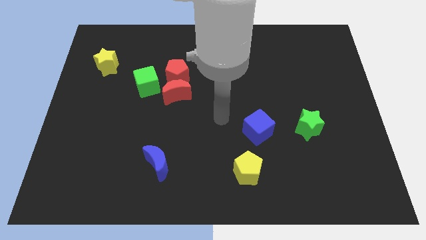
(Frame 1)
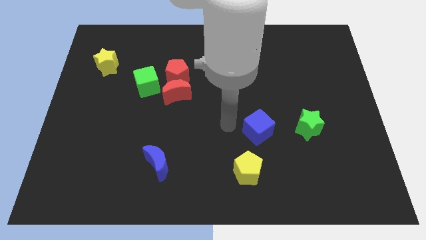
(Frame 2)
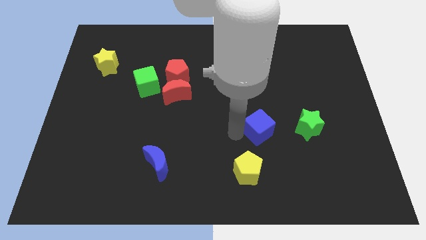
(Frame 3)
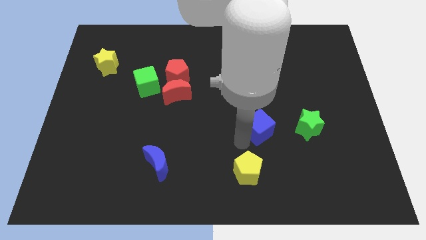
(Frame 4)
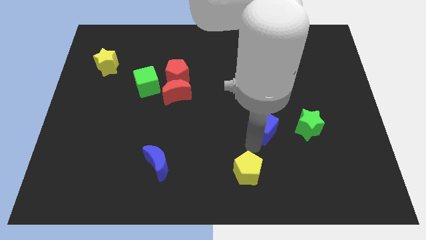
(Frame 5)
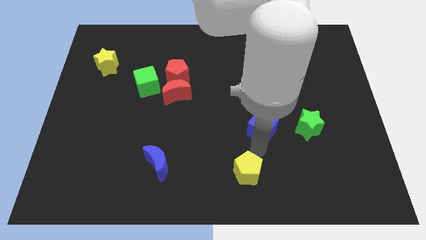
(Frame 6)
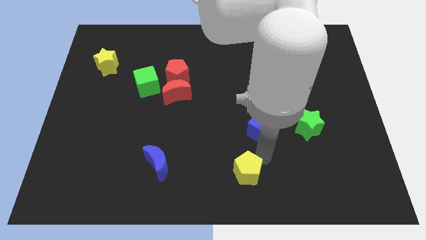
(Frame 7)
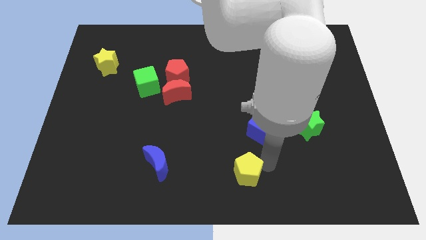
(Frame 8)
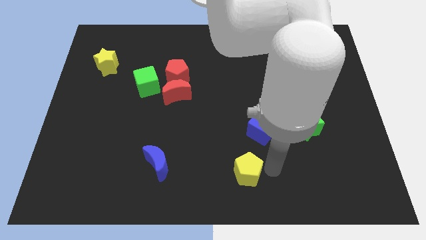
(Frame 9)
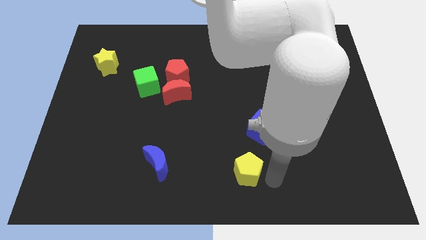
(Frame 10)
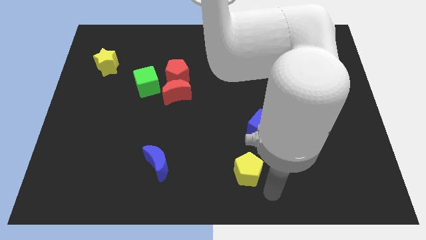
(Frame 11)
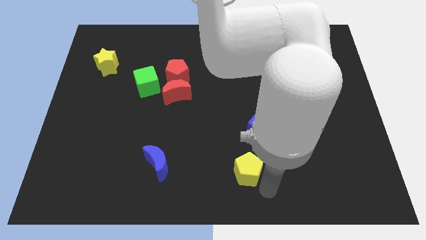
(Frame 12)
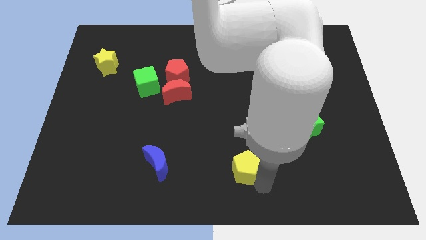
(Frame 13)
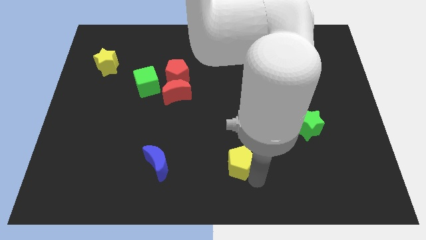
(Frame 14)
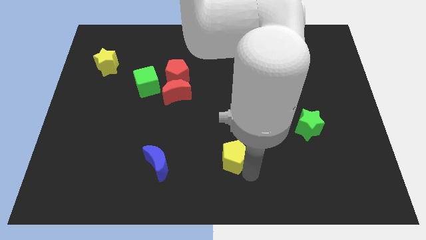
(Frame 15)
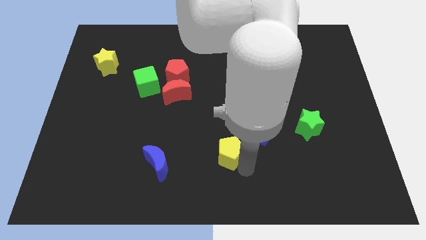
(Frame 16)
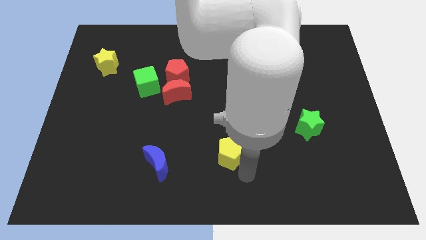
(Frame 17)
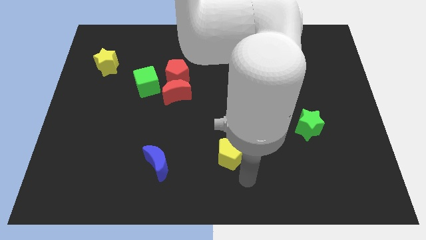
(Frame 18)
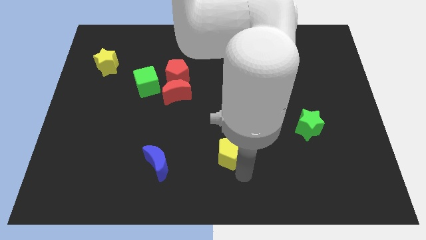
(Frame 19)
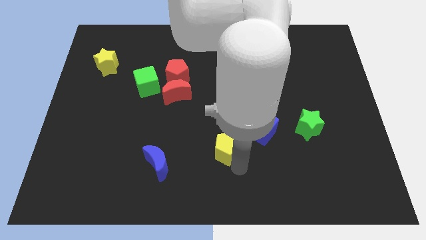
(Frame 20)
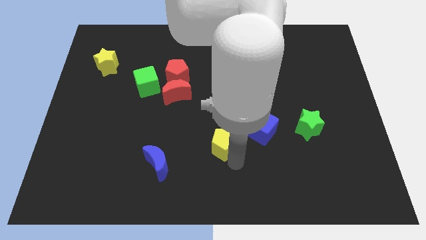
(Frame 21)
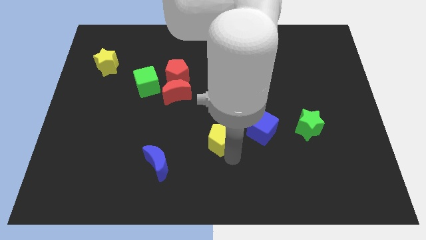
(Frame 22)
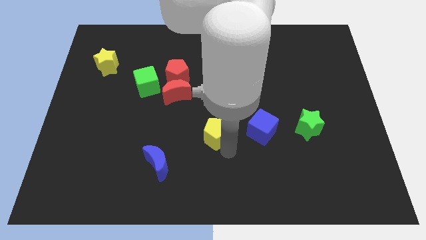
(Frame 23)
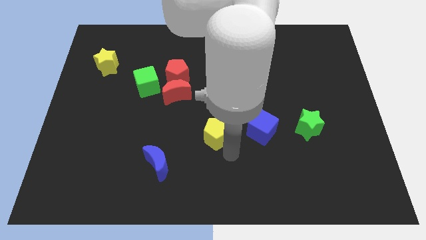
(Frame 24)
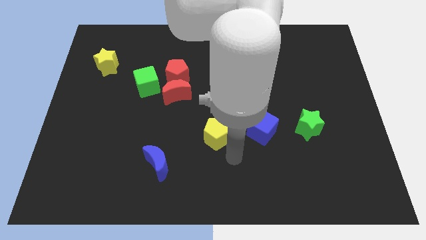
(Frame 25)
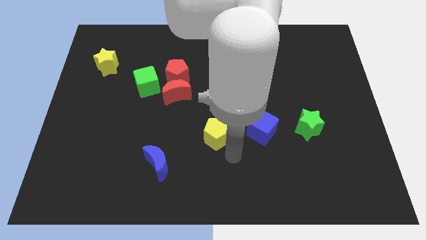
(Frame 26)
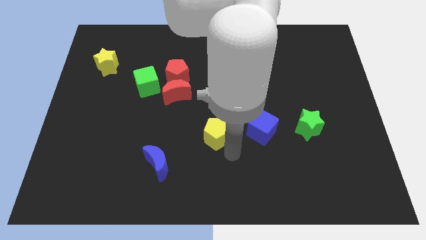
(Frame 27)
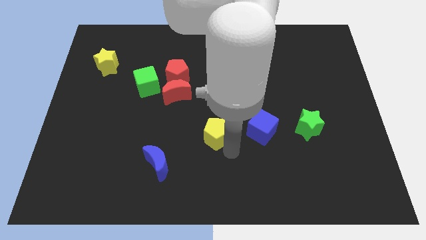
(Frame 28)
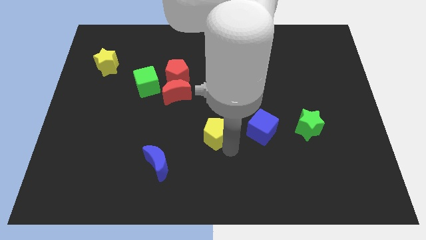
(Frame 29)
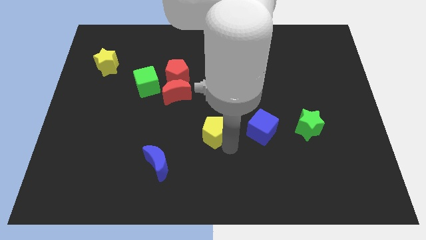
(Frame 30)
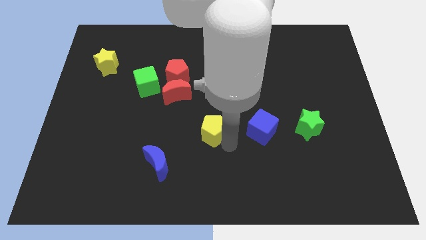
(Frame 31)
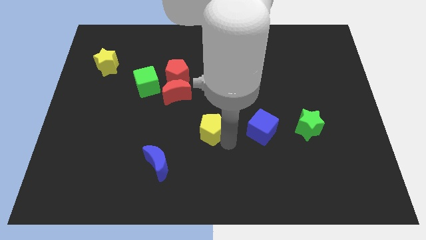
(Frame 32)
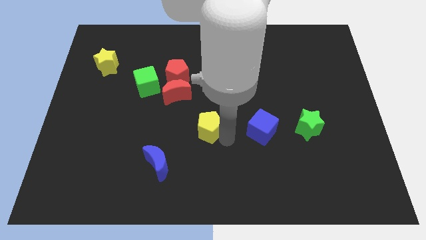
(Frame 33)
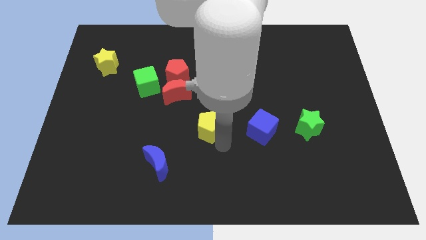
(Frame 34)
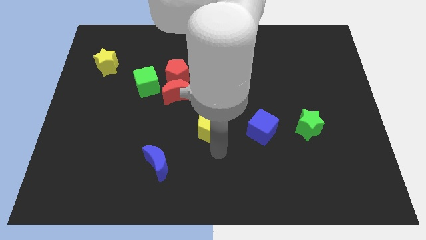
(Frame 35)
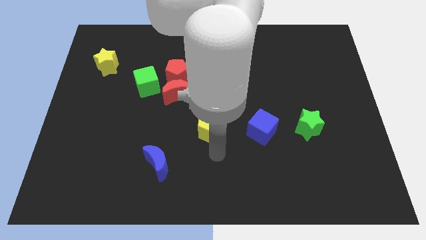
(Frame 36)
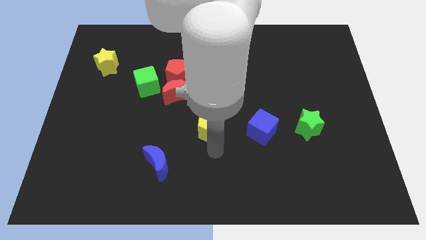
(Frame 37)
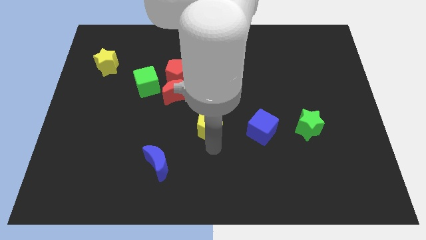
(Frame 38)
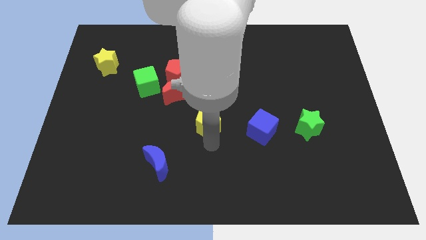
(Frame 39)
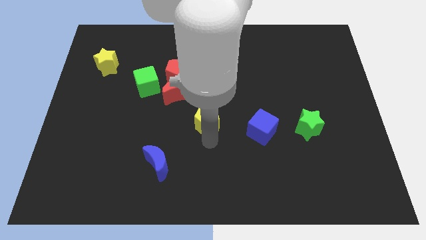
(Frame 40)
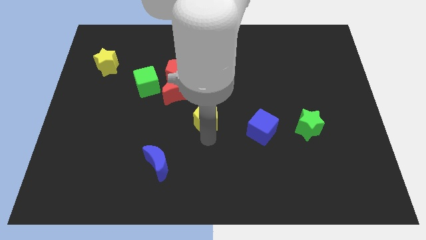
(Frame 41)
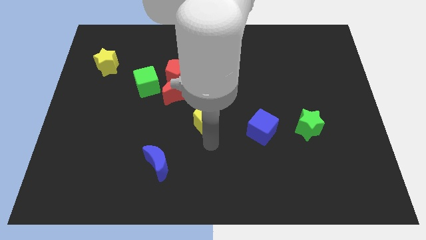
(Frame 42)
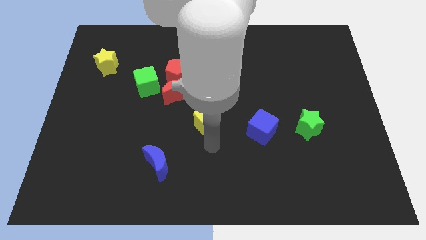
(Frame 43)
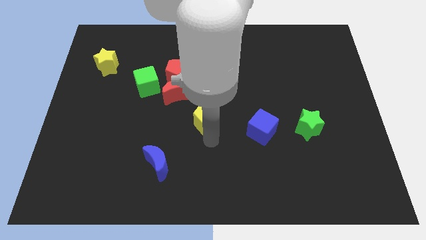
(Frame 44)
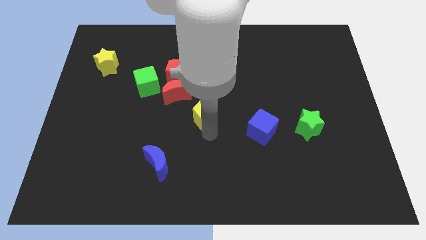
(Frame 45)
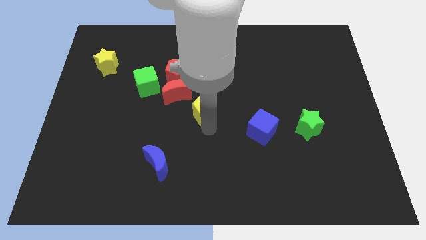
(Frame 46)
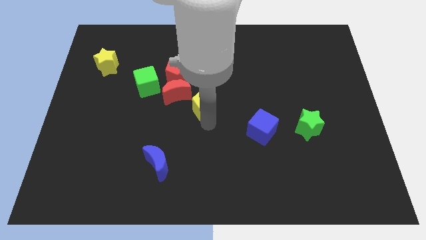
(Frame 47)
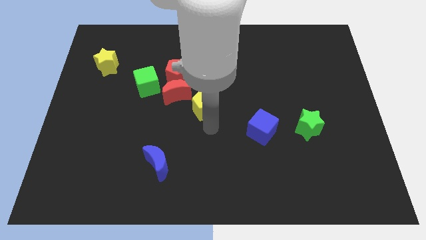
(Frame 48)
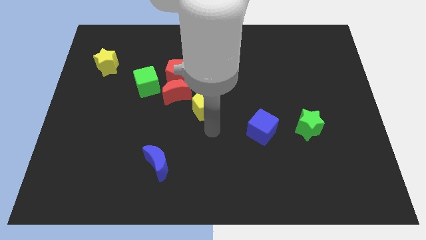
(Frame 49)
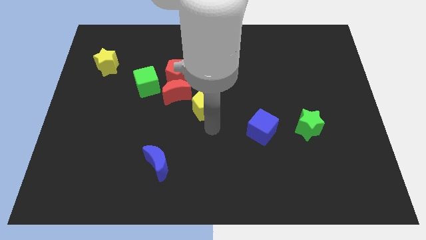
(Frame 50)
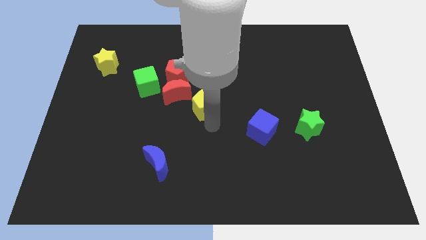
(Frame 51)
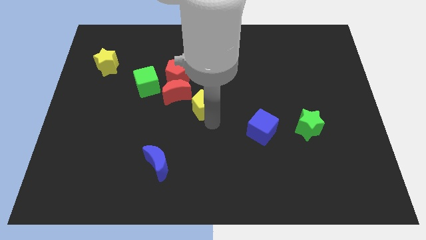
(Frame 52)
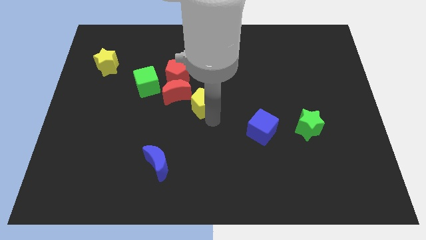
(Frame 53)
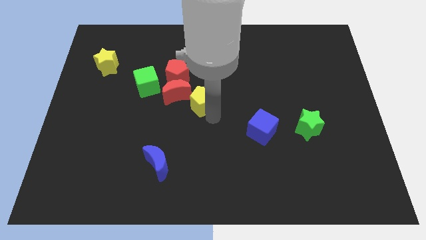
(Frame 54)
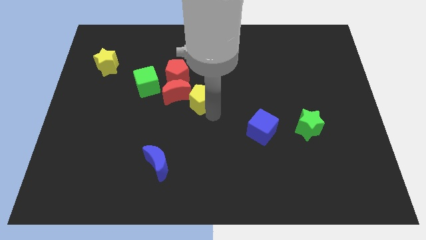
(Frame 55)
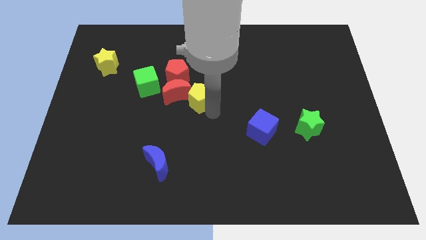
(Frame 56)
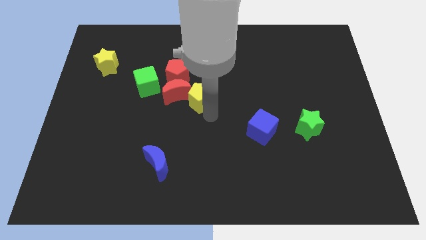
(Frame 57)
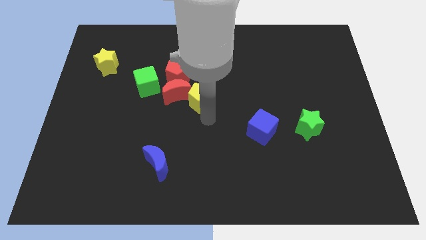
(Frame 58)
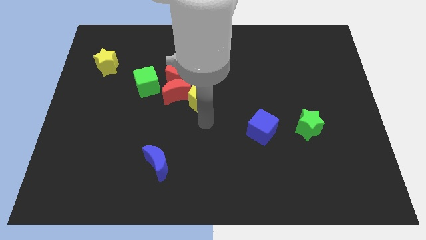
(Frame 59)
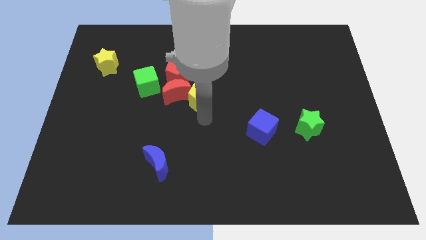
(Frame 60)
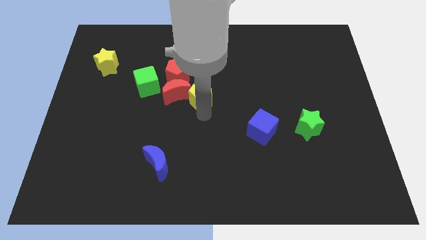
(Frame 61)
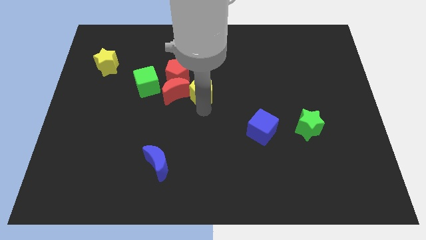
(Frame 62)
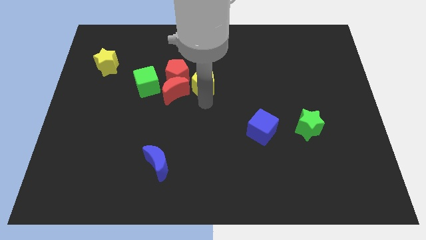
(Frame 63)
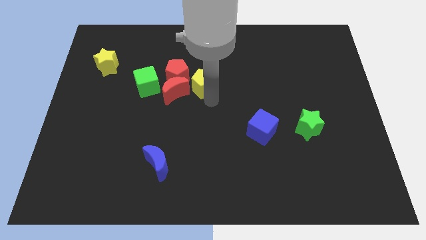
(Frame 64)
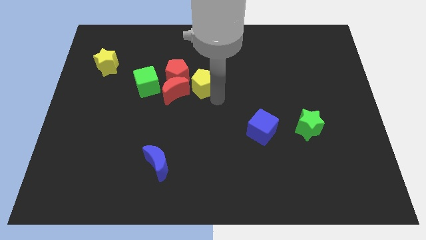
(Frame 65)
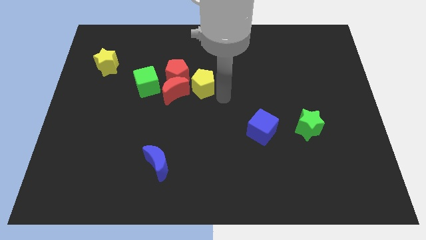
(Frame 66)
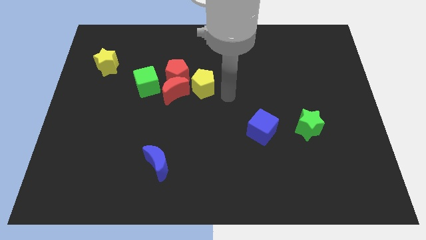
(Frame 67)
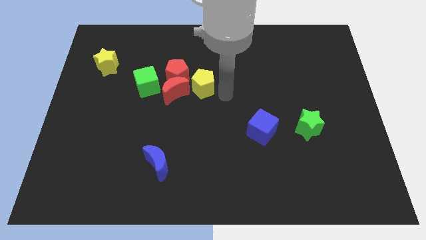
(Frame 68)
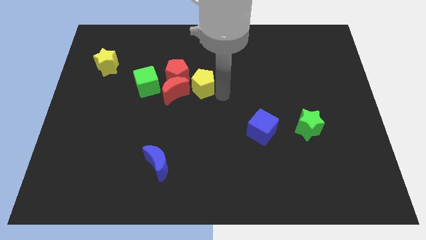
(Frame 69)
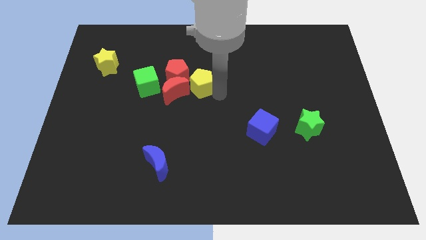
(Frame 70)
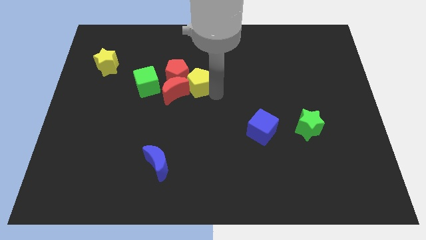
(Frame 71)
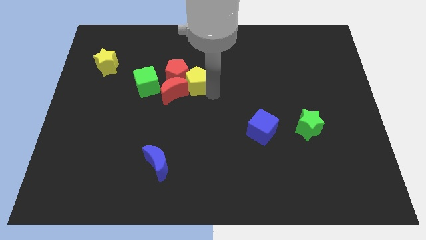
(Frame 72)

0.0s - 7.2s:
put the yellow pentagon to the red pentagon

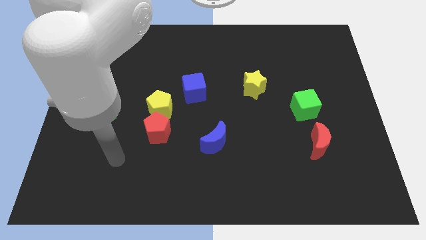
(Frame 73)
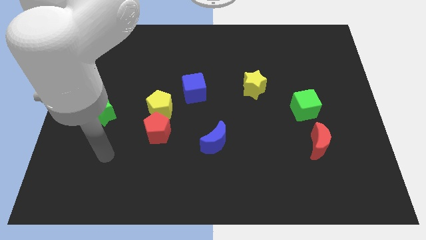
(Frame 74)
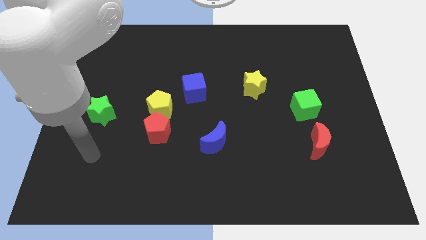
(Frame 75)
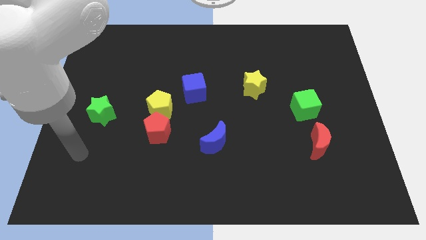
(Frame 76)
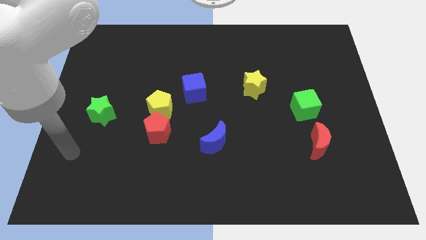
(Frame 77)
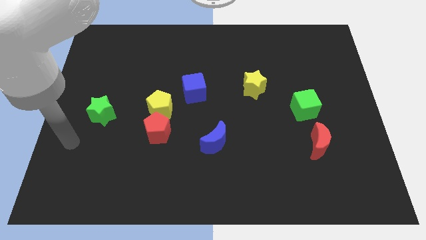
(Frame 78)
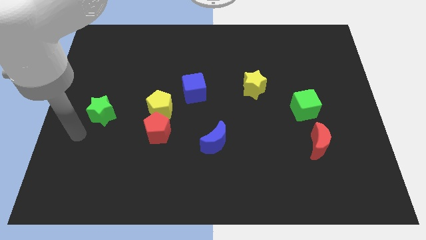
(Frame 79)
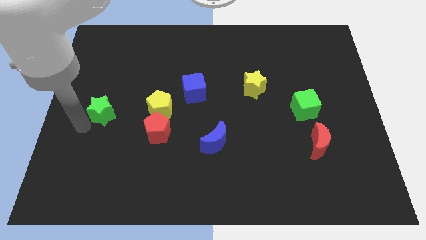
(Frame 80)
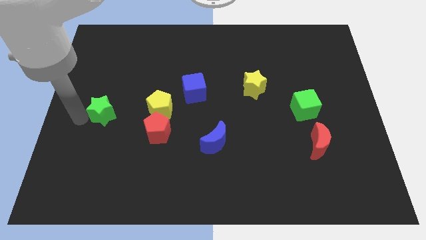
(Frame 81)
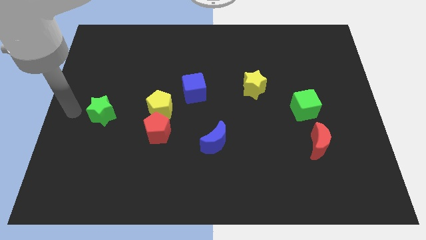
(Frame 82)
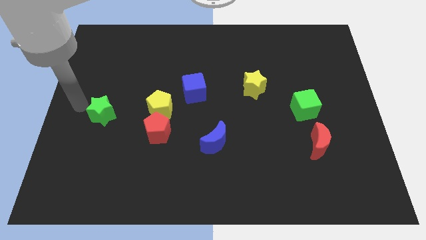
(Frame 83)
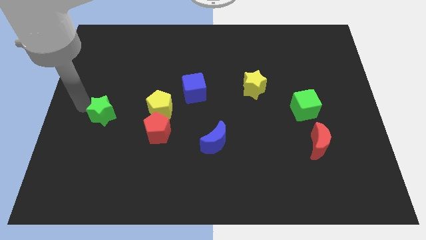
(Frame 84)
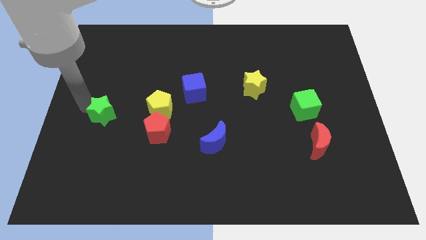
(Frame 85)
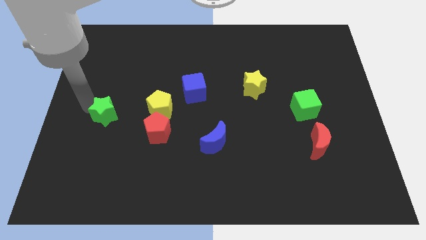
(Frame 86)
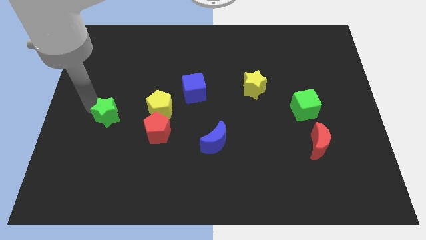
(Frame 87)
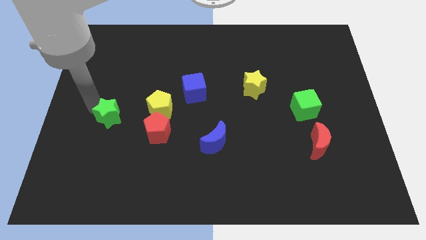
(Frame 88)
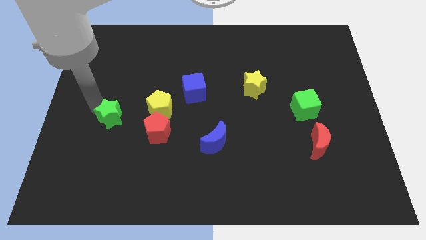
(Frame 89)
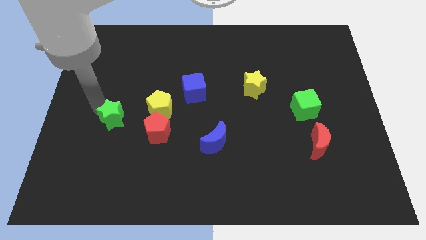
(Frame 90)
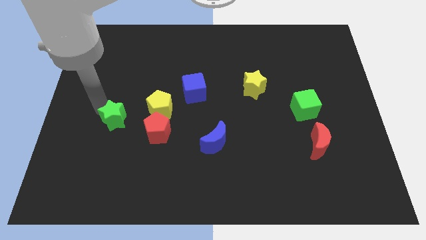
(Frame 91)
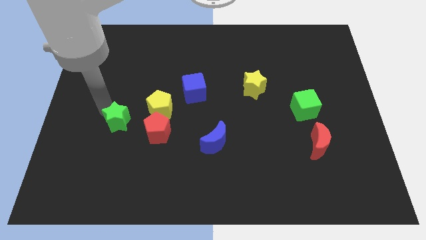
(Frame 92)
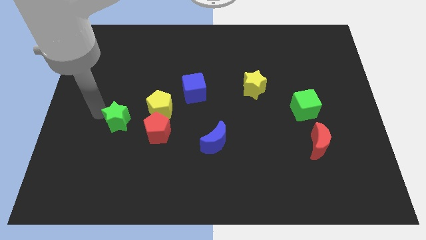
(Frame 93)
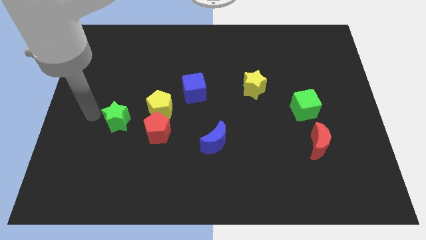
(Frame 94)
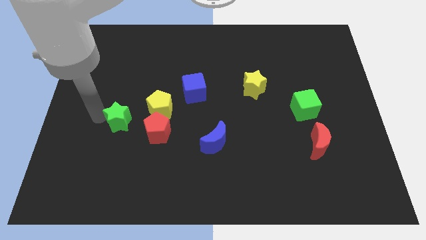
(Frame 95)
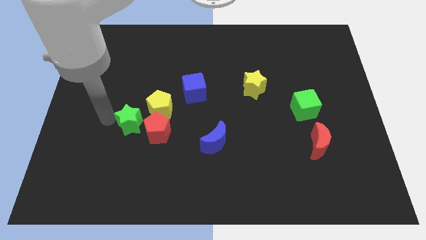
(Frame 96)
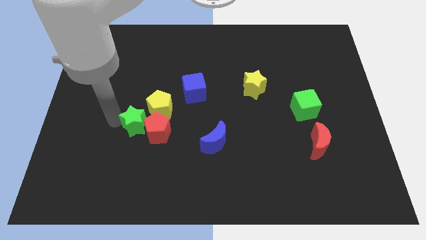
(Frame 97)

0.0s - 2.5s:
slide the green star to the red pentagon
